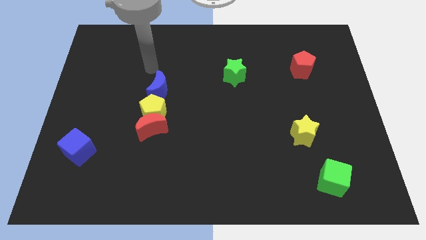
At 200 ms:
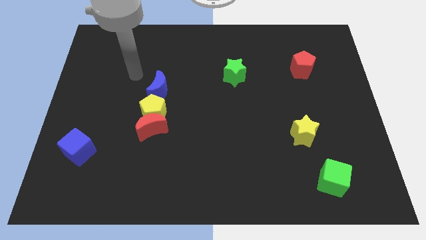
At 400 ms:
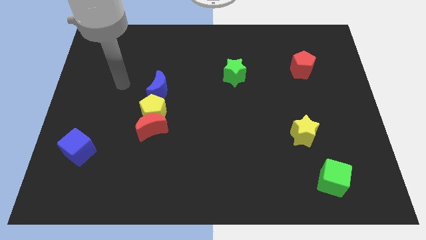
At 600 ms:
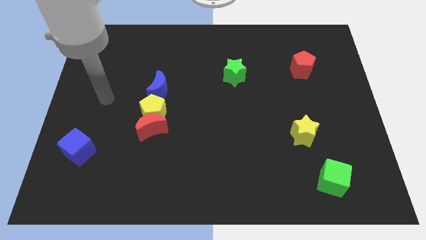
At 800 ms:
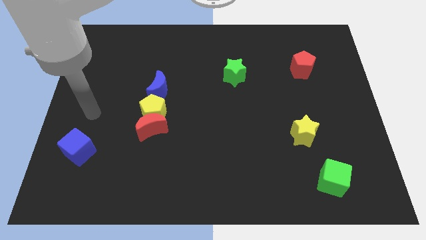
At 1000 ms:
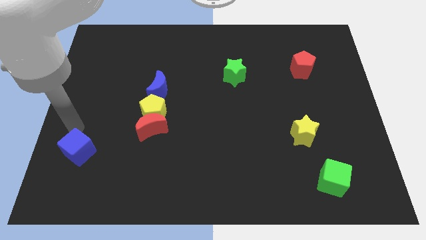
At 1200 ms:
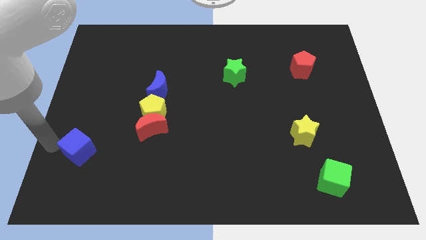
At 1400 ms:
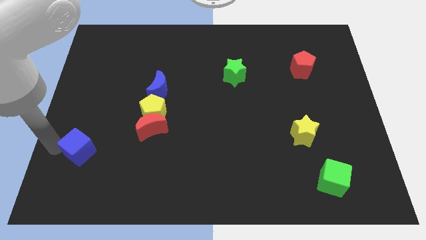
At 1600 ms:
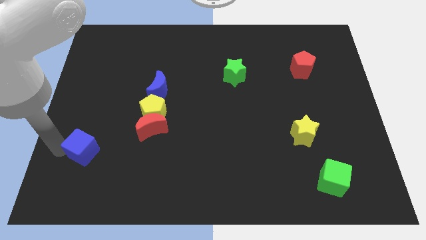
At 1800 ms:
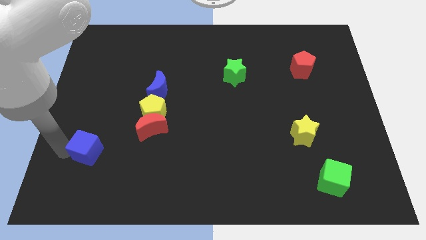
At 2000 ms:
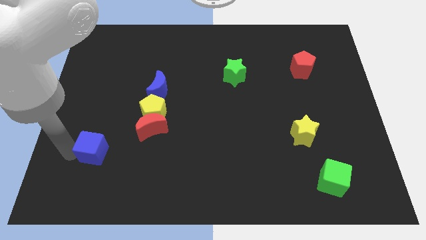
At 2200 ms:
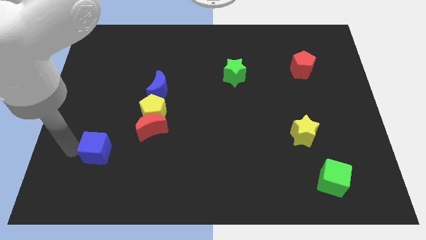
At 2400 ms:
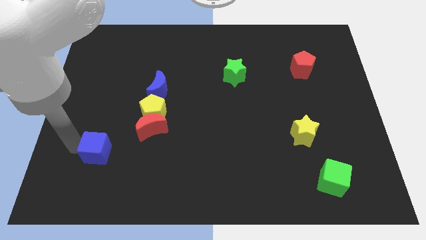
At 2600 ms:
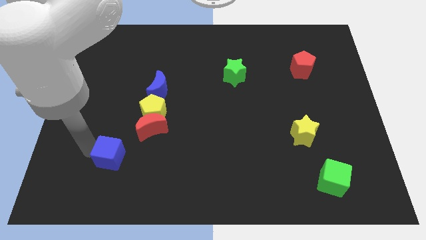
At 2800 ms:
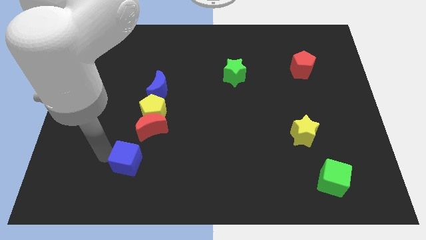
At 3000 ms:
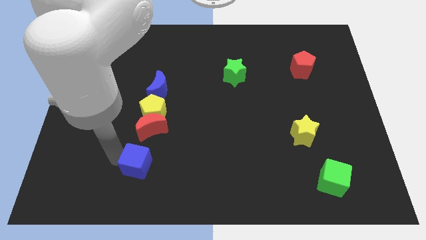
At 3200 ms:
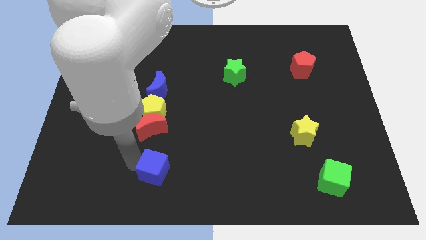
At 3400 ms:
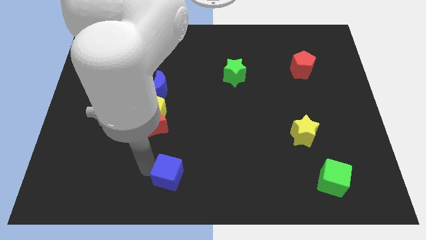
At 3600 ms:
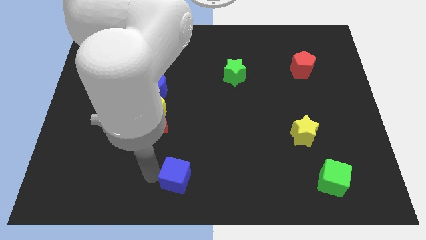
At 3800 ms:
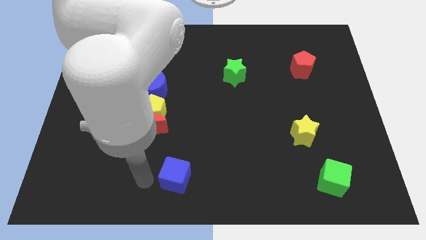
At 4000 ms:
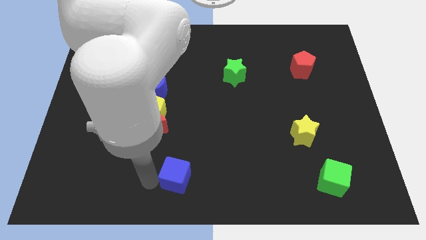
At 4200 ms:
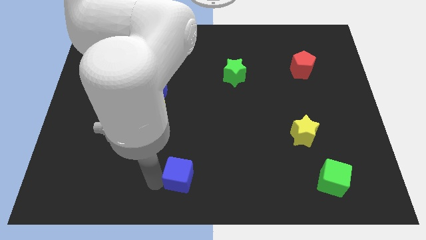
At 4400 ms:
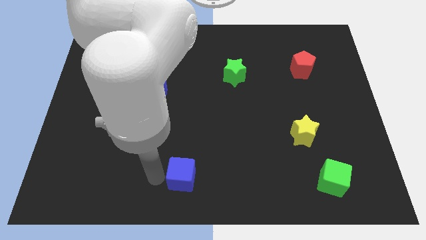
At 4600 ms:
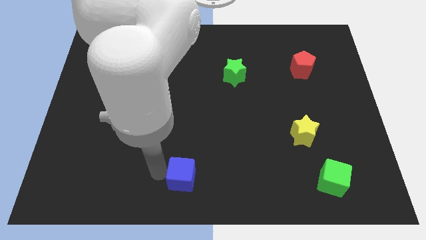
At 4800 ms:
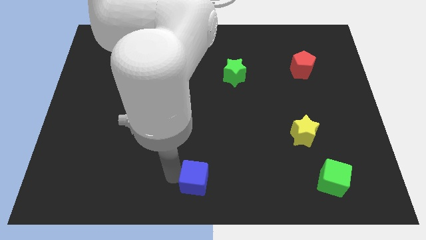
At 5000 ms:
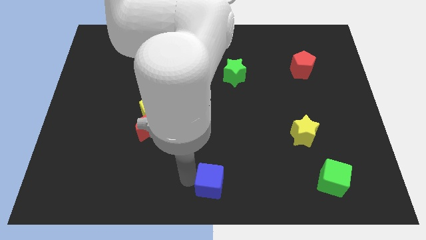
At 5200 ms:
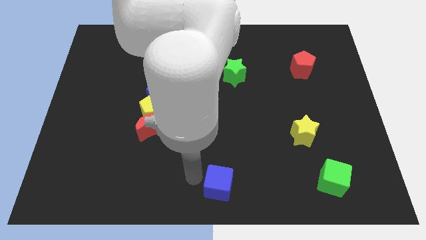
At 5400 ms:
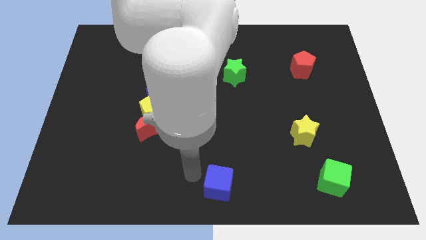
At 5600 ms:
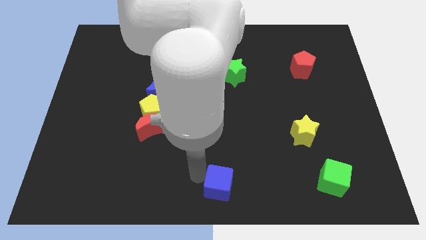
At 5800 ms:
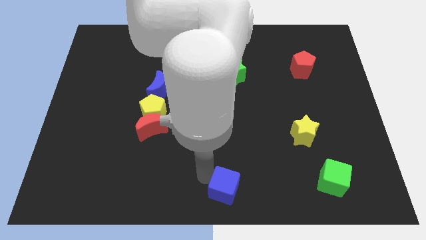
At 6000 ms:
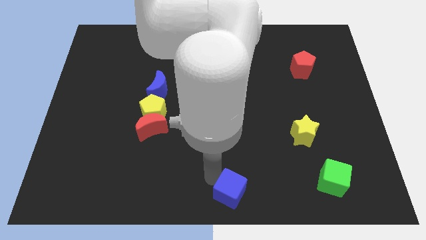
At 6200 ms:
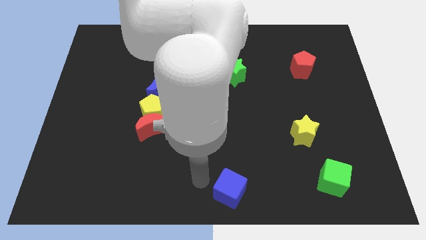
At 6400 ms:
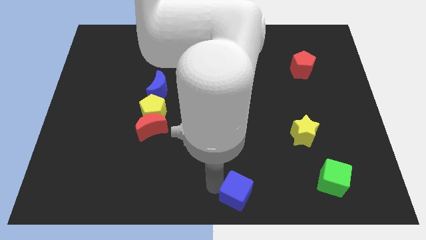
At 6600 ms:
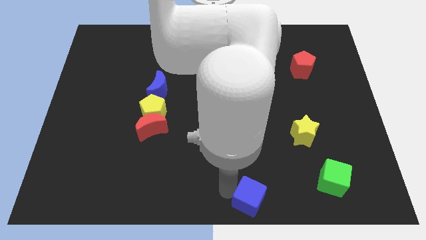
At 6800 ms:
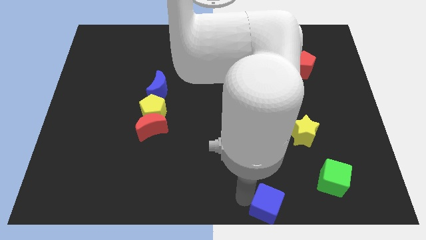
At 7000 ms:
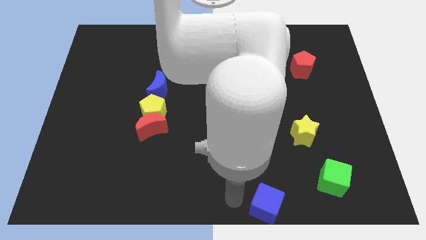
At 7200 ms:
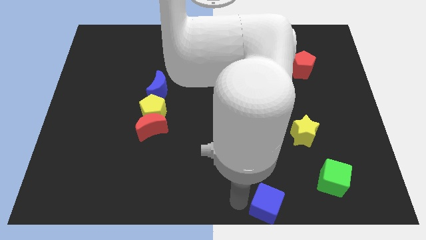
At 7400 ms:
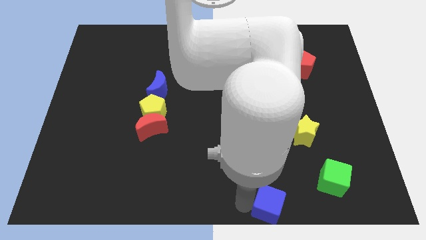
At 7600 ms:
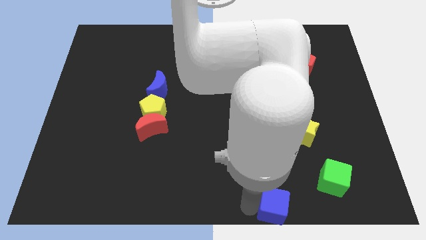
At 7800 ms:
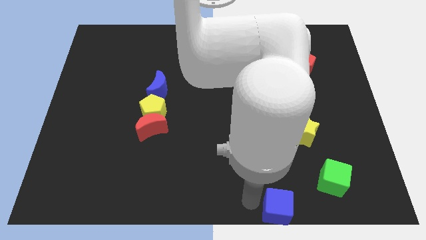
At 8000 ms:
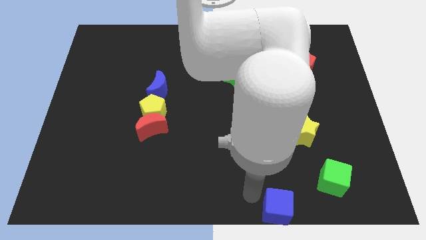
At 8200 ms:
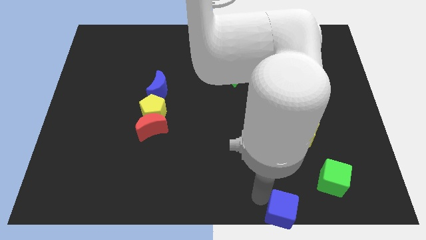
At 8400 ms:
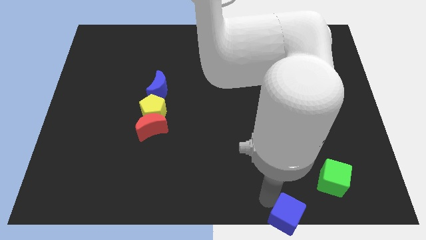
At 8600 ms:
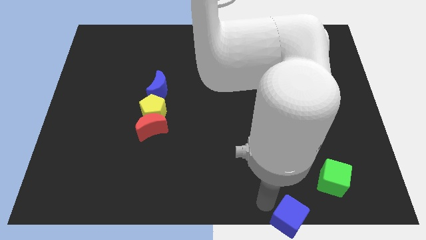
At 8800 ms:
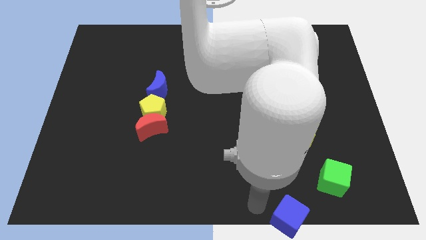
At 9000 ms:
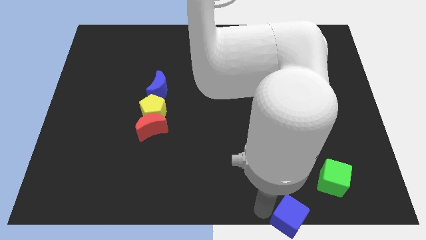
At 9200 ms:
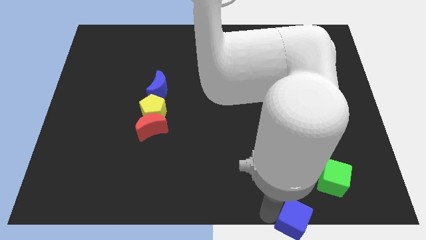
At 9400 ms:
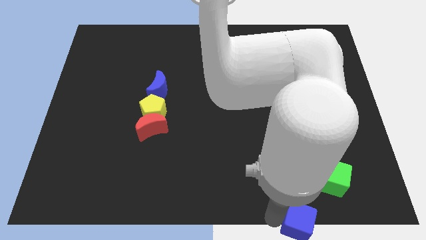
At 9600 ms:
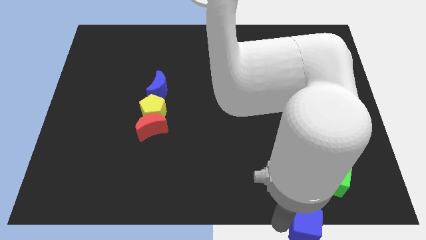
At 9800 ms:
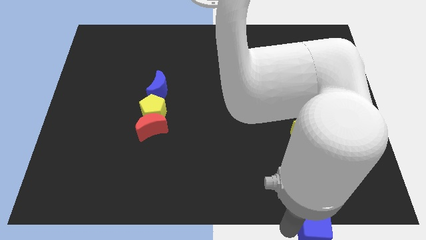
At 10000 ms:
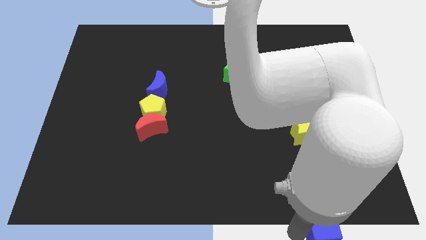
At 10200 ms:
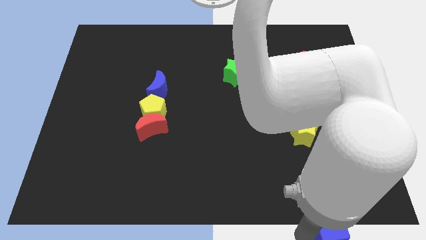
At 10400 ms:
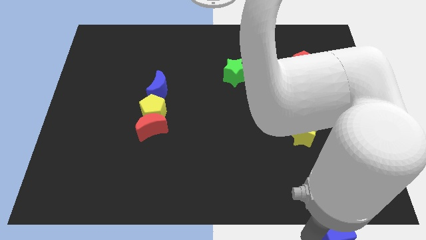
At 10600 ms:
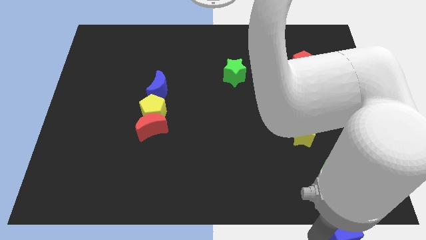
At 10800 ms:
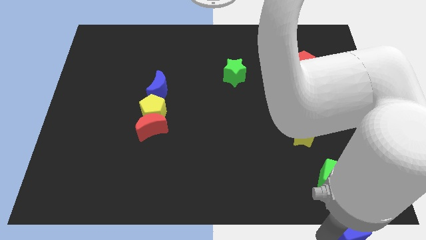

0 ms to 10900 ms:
slide the blue cube to the bottom right

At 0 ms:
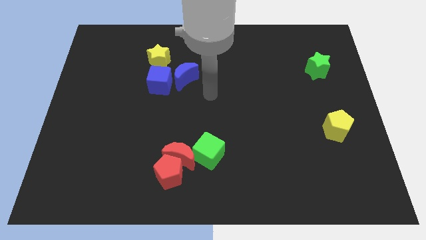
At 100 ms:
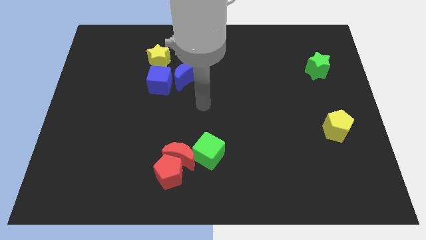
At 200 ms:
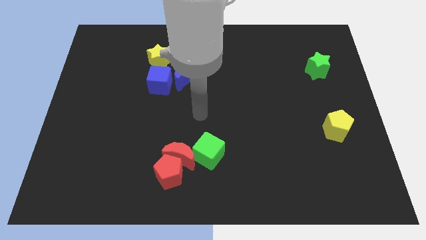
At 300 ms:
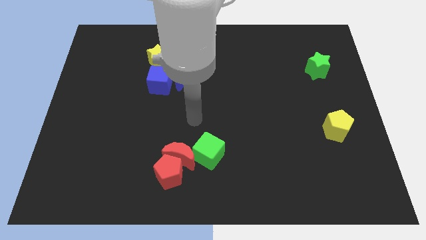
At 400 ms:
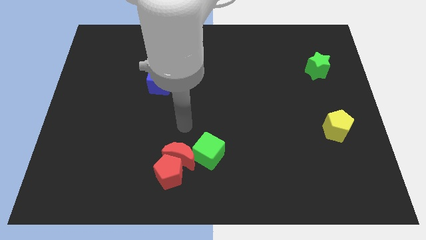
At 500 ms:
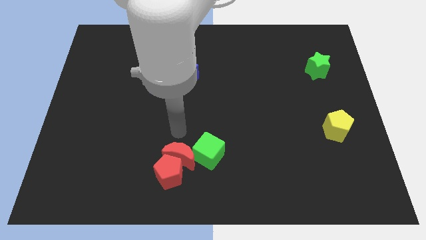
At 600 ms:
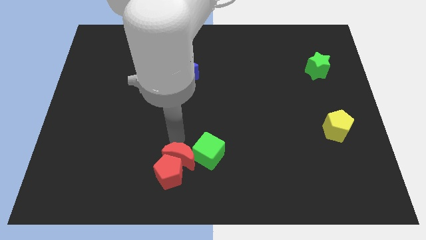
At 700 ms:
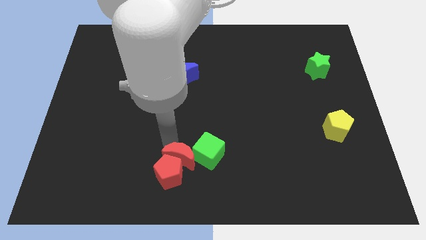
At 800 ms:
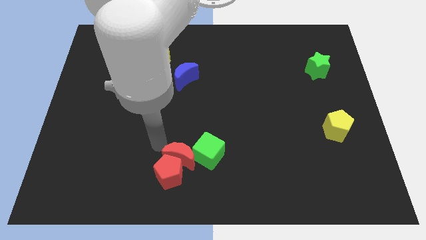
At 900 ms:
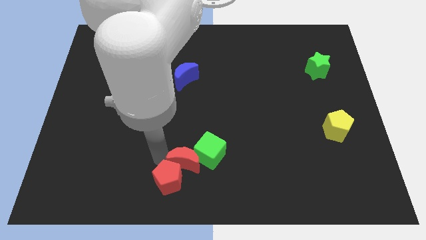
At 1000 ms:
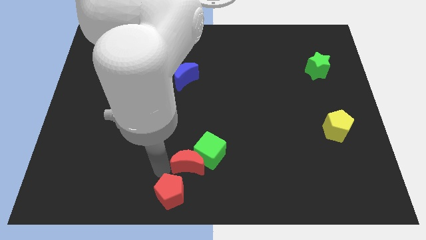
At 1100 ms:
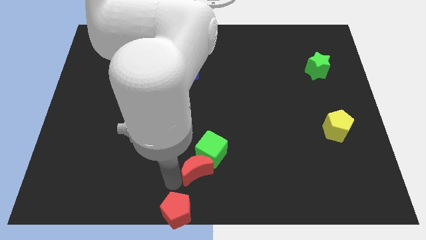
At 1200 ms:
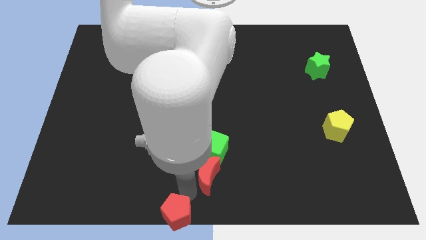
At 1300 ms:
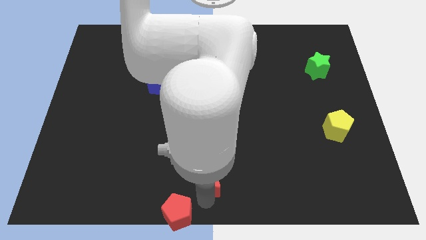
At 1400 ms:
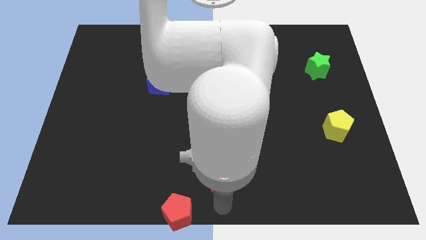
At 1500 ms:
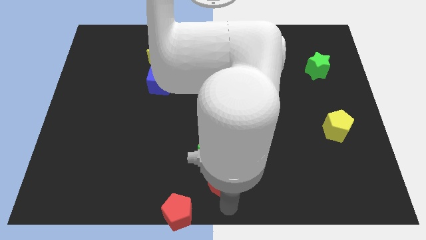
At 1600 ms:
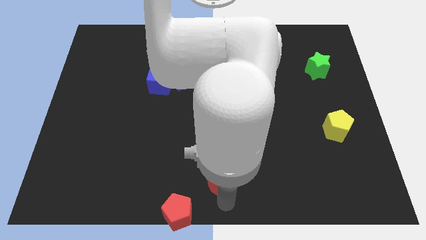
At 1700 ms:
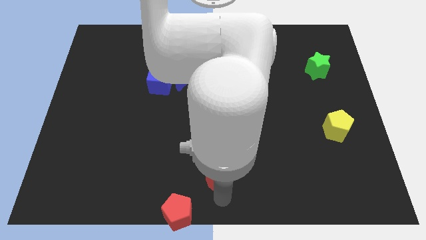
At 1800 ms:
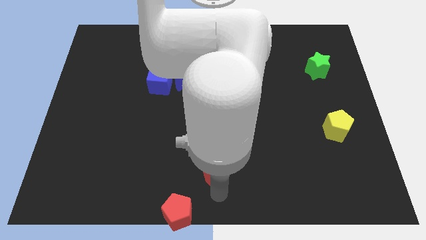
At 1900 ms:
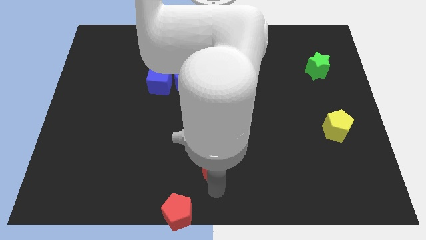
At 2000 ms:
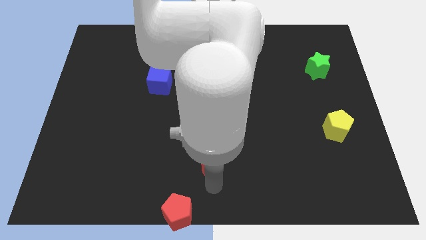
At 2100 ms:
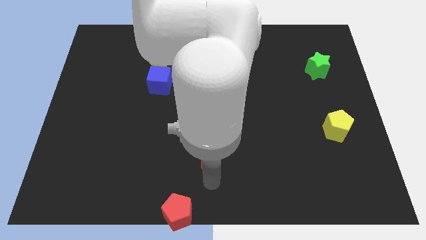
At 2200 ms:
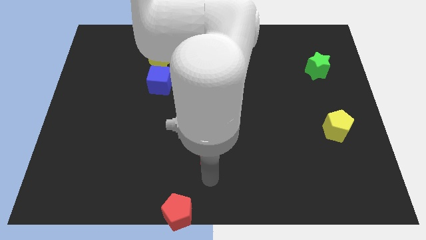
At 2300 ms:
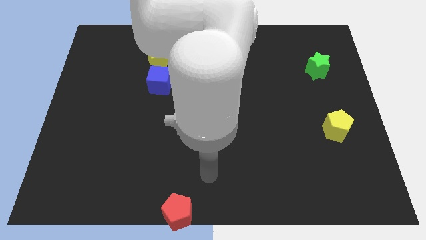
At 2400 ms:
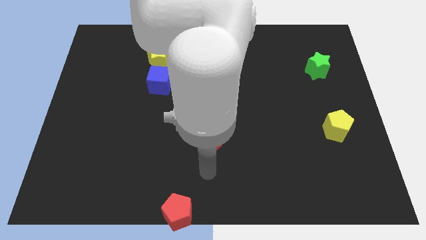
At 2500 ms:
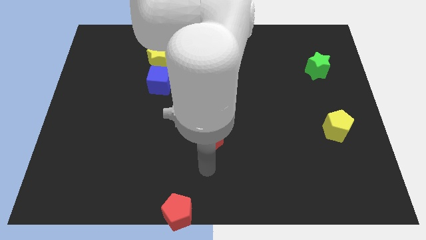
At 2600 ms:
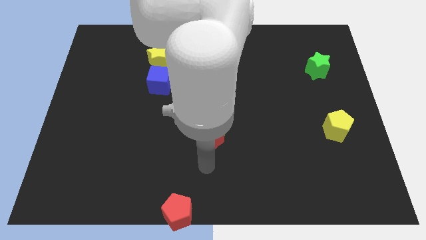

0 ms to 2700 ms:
move the red moon to the middle
